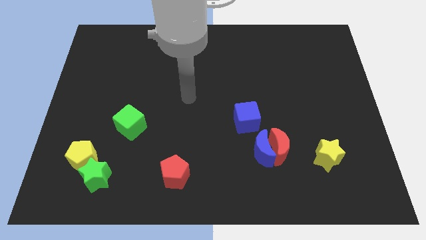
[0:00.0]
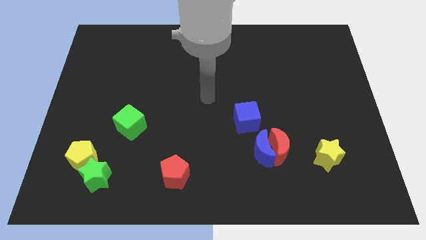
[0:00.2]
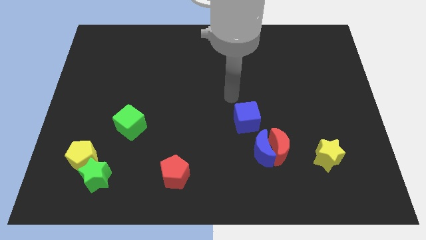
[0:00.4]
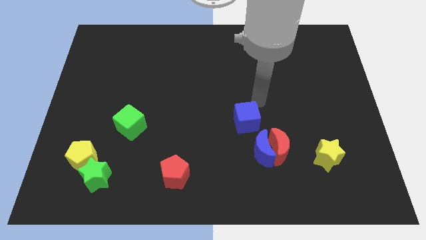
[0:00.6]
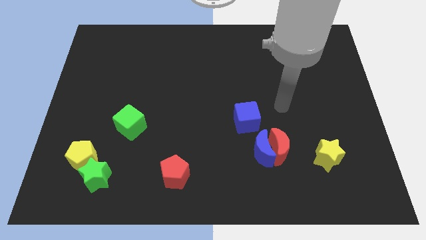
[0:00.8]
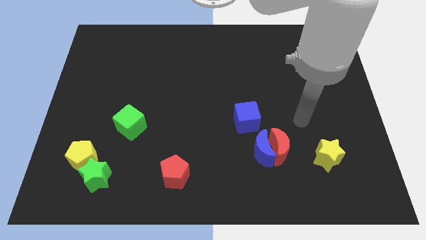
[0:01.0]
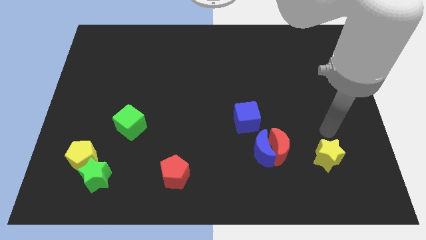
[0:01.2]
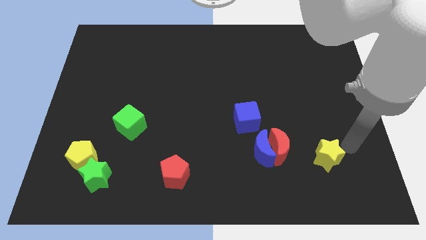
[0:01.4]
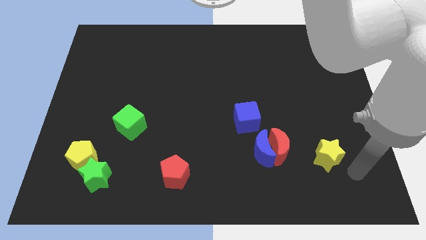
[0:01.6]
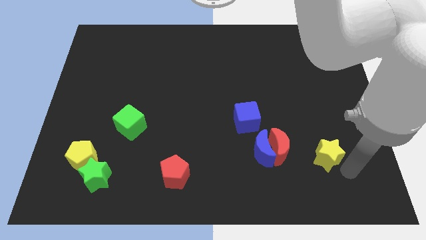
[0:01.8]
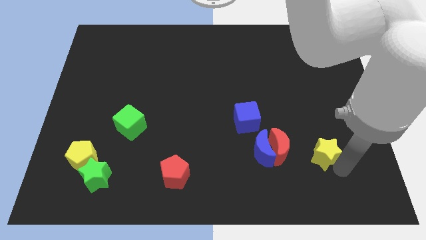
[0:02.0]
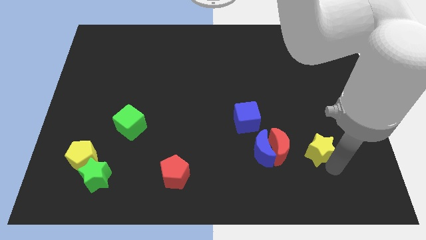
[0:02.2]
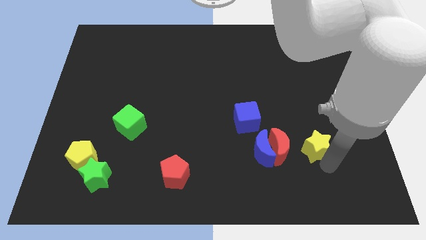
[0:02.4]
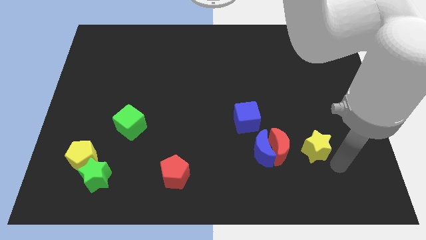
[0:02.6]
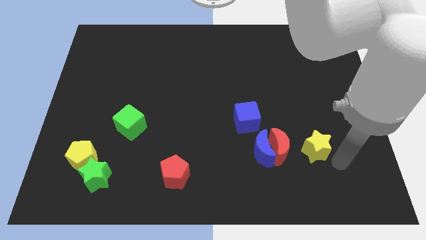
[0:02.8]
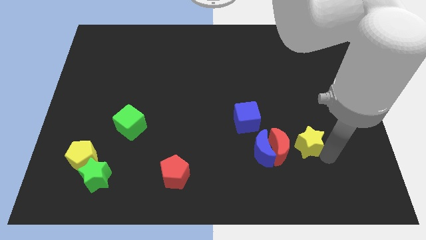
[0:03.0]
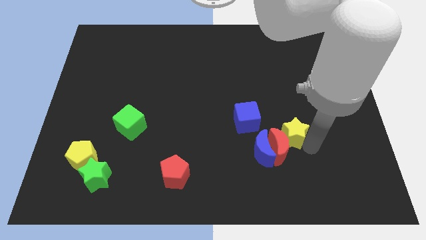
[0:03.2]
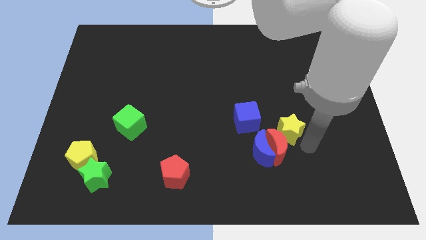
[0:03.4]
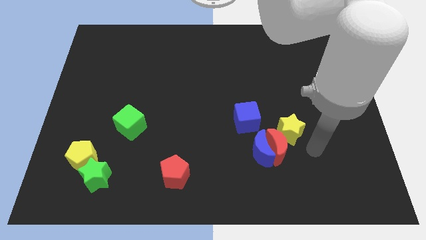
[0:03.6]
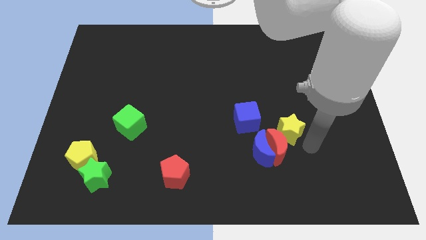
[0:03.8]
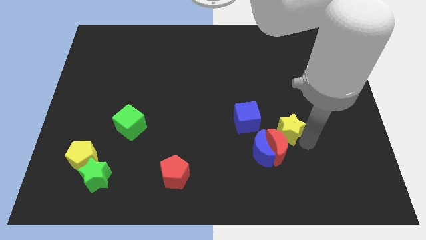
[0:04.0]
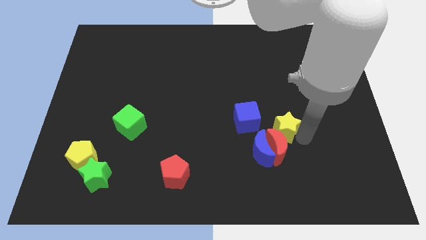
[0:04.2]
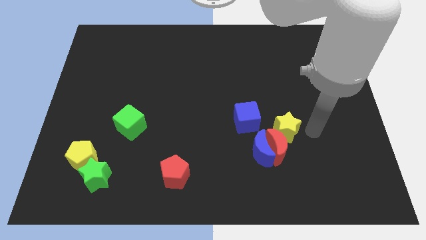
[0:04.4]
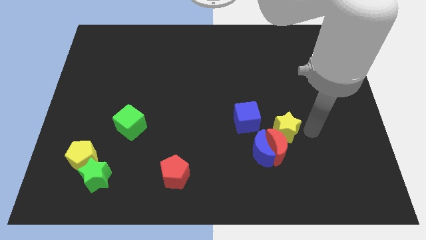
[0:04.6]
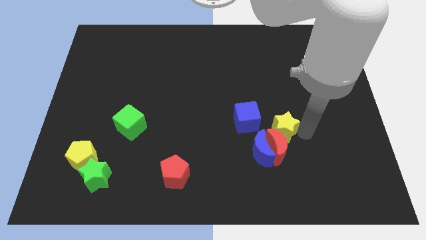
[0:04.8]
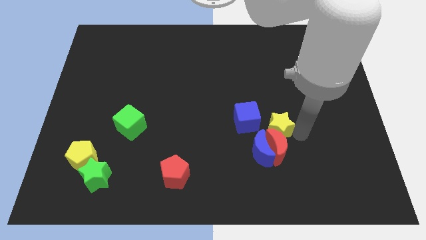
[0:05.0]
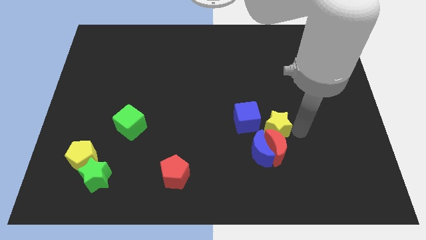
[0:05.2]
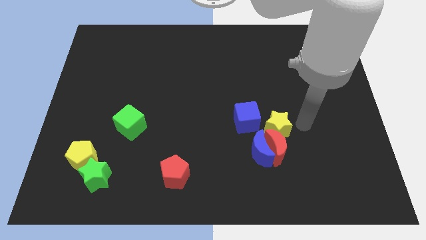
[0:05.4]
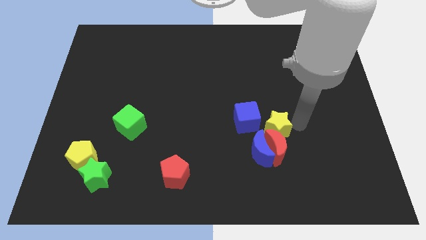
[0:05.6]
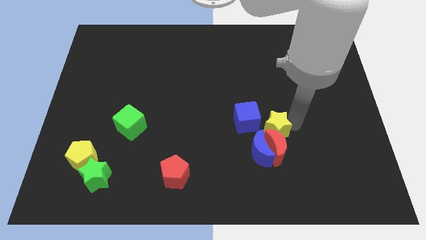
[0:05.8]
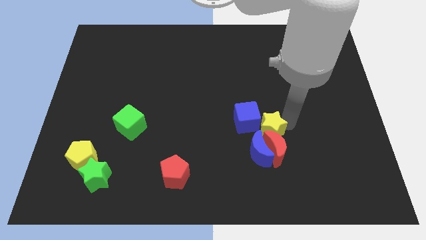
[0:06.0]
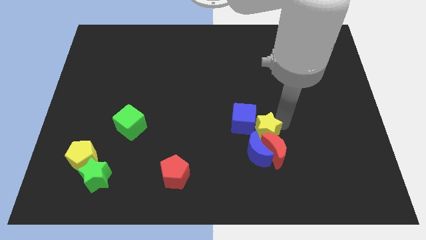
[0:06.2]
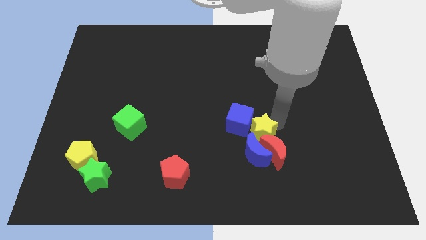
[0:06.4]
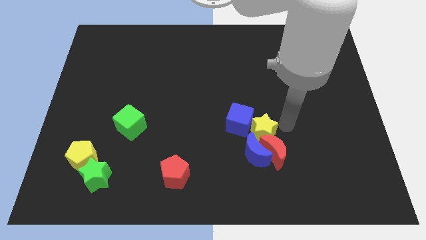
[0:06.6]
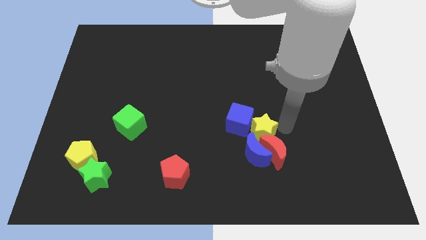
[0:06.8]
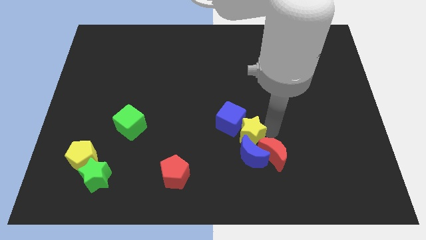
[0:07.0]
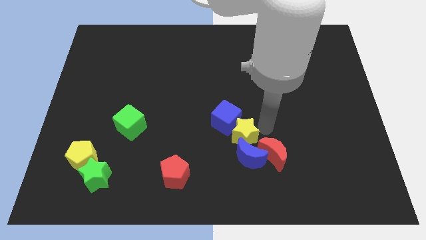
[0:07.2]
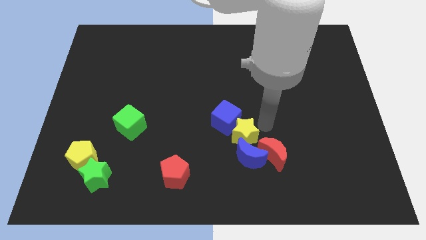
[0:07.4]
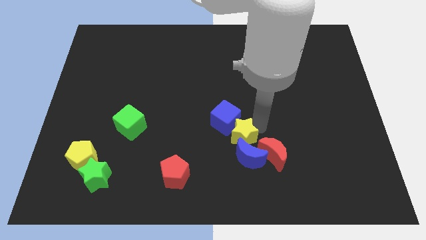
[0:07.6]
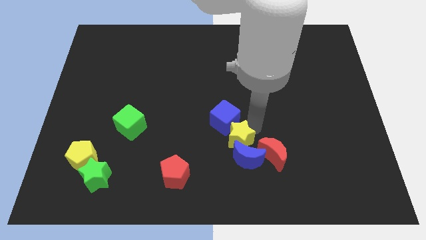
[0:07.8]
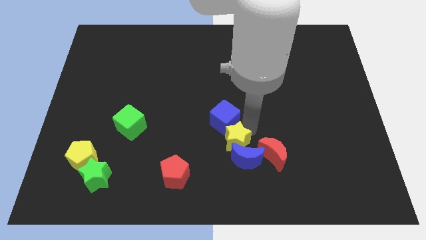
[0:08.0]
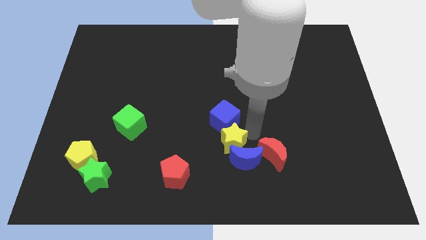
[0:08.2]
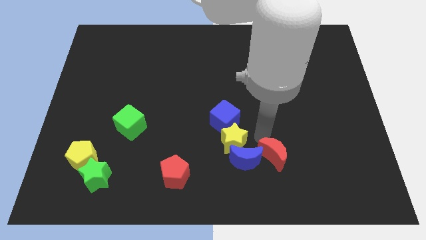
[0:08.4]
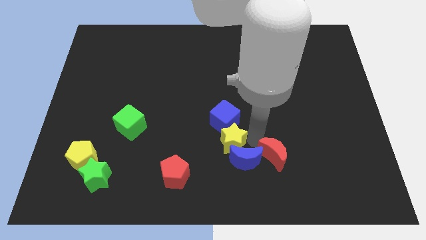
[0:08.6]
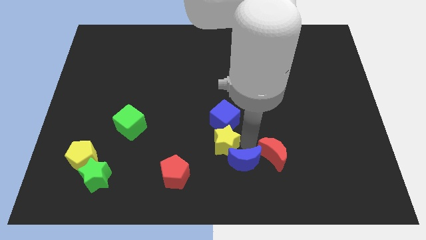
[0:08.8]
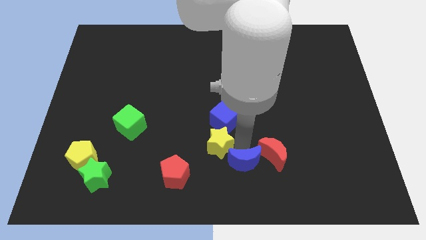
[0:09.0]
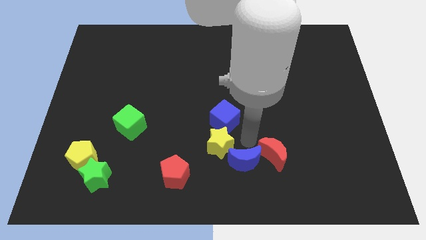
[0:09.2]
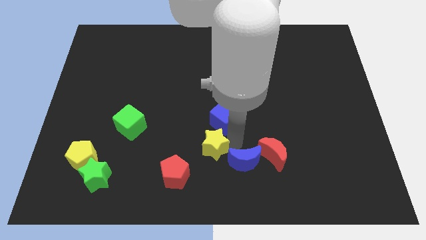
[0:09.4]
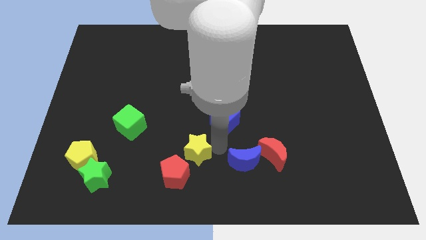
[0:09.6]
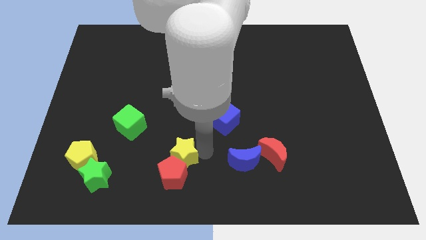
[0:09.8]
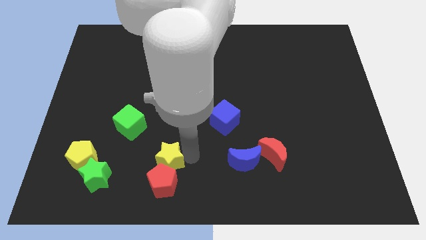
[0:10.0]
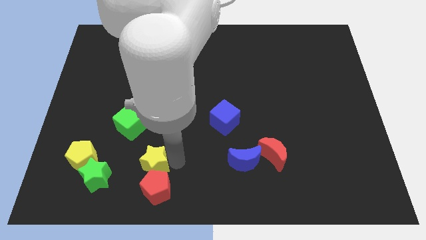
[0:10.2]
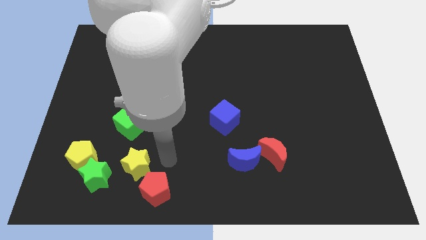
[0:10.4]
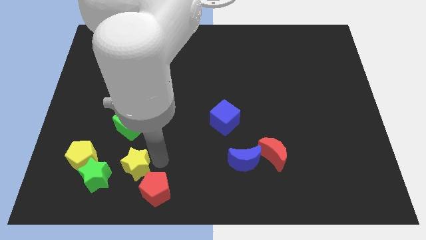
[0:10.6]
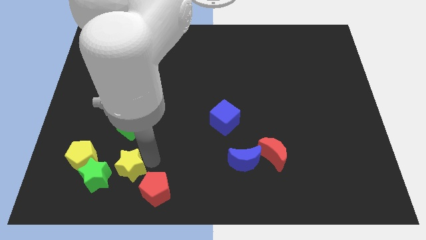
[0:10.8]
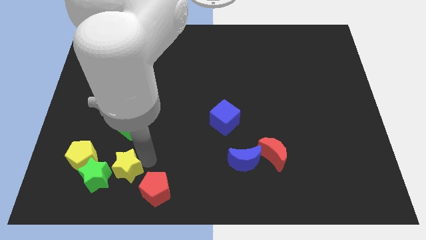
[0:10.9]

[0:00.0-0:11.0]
put the yellow star next to the green star

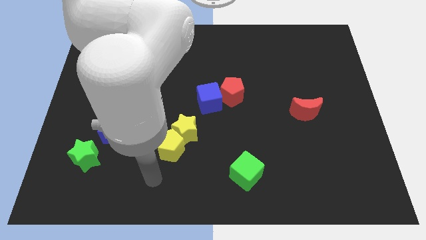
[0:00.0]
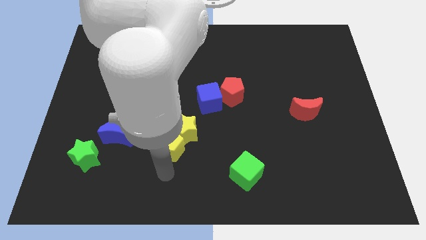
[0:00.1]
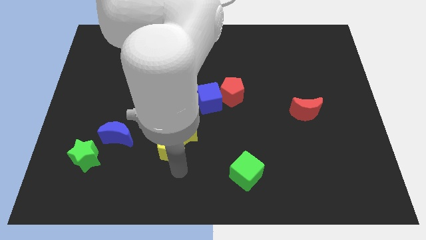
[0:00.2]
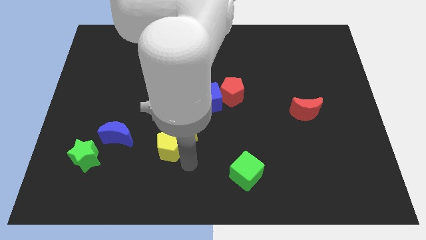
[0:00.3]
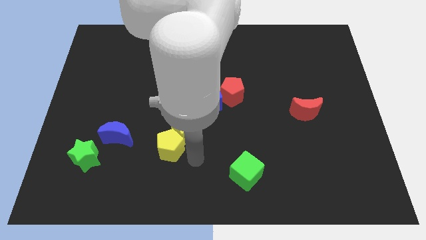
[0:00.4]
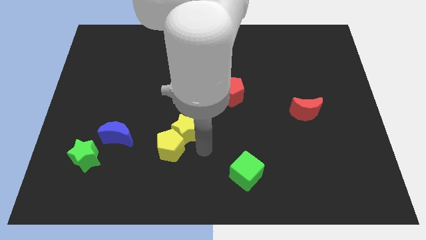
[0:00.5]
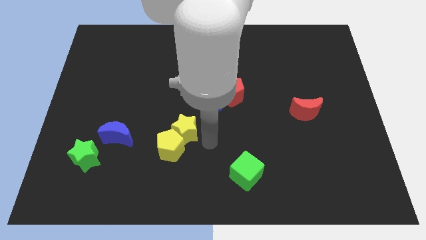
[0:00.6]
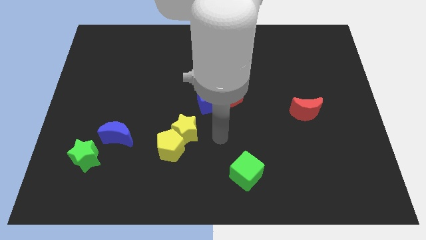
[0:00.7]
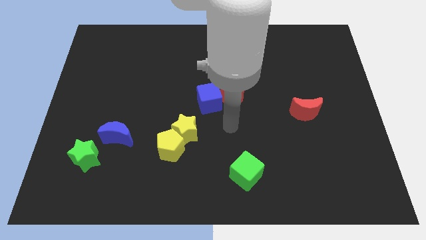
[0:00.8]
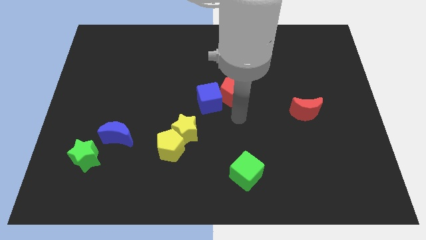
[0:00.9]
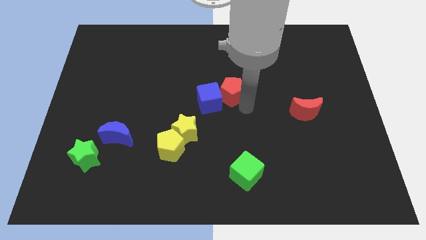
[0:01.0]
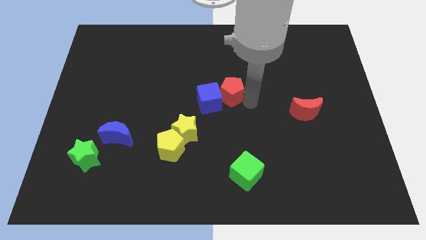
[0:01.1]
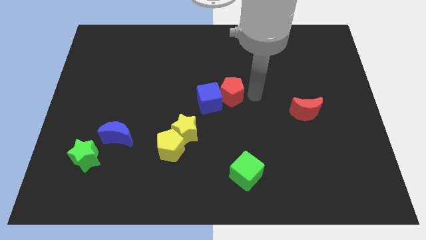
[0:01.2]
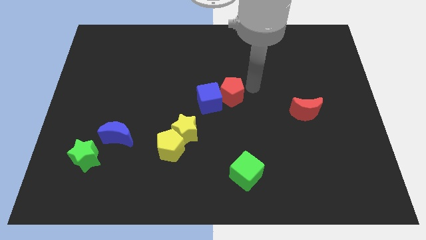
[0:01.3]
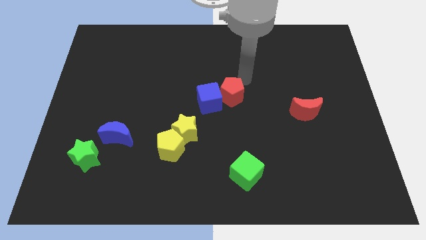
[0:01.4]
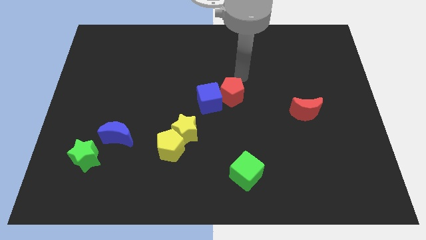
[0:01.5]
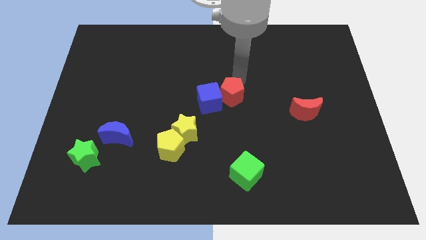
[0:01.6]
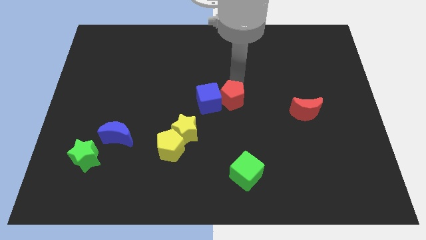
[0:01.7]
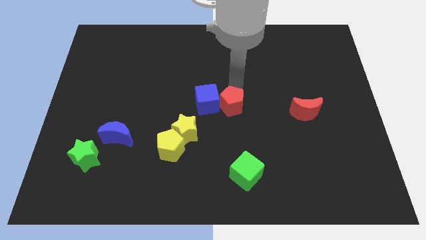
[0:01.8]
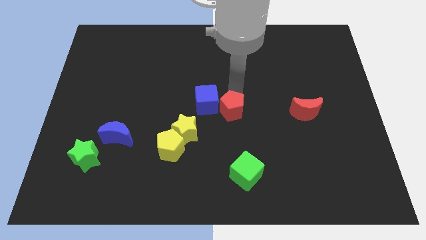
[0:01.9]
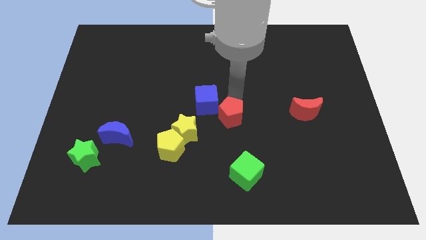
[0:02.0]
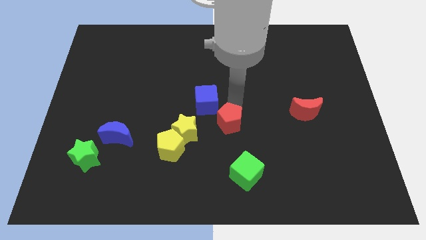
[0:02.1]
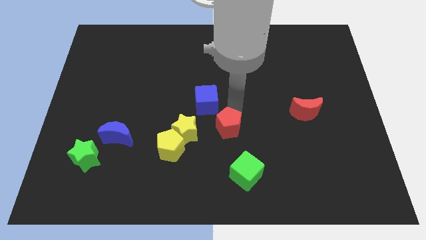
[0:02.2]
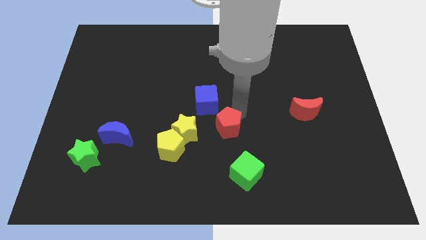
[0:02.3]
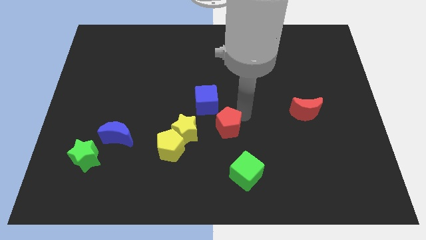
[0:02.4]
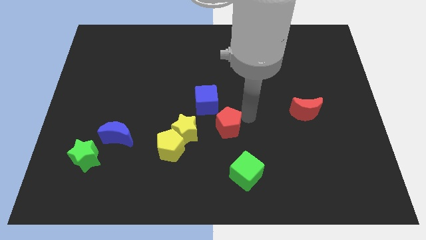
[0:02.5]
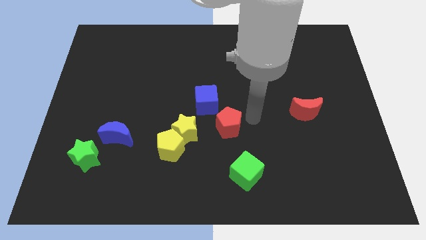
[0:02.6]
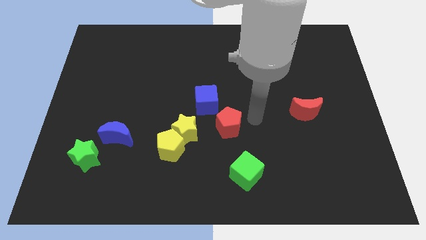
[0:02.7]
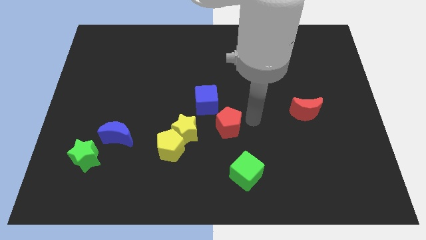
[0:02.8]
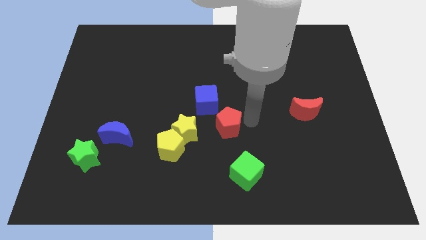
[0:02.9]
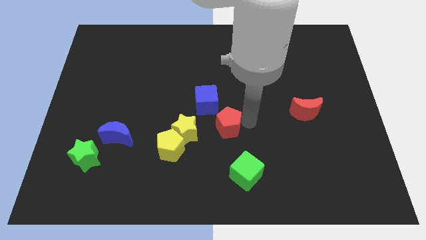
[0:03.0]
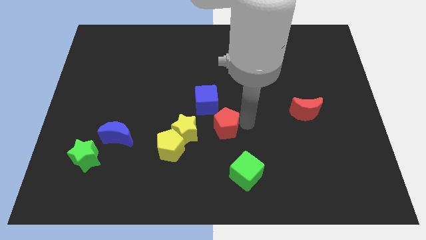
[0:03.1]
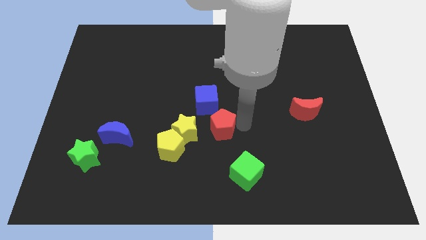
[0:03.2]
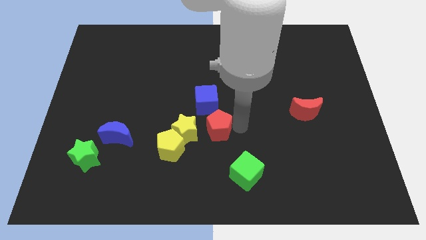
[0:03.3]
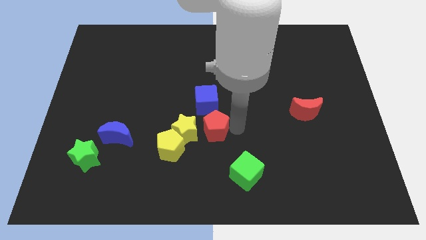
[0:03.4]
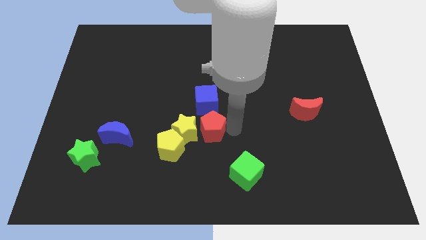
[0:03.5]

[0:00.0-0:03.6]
put the red pentagon to the yellow star
